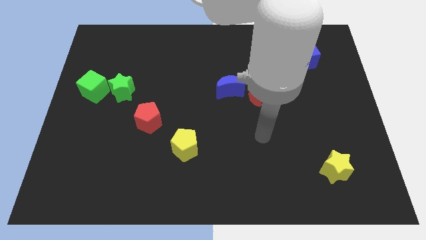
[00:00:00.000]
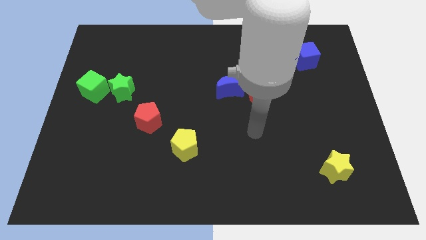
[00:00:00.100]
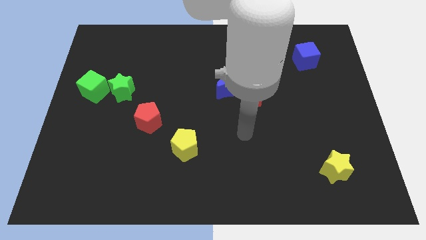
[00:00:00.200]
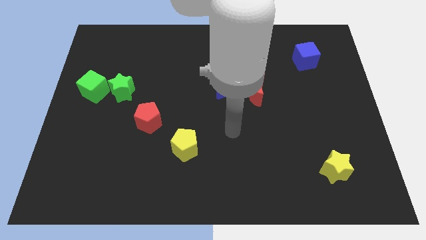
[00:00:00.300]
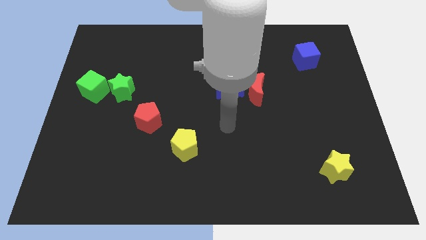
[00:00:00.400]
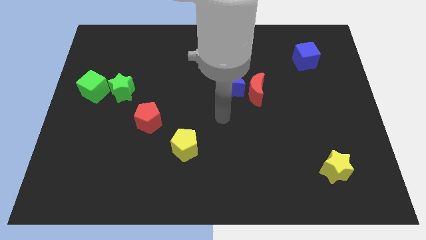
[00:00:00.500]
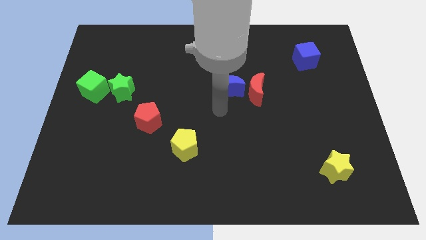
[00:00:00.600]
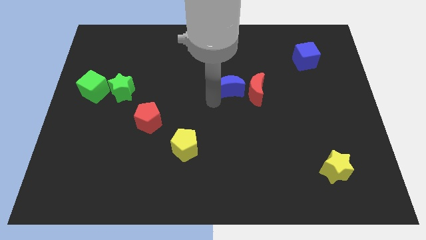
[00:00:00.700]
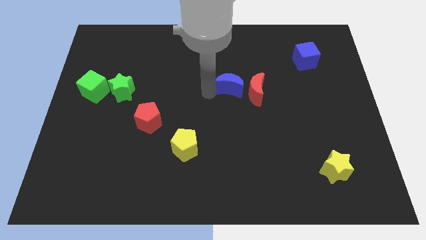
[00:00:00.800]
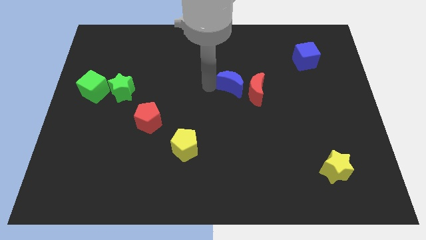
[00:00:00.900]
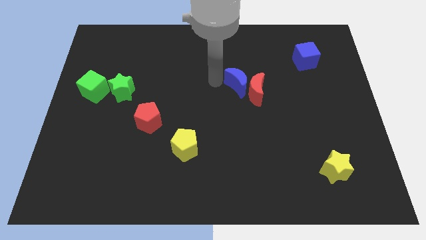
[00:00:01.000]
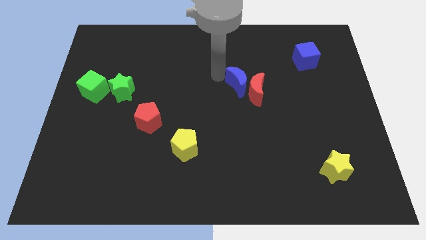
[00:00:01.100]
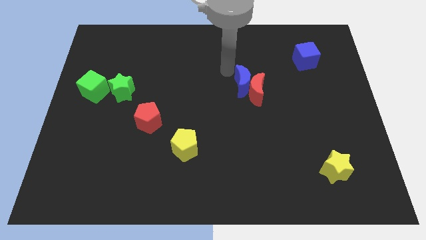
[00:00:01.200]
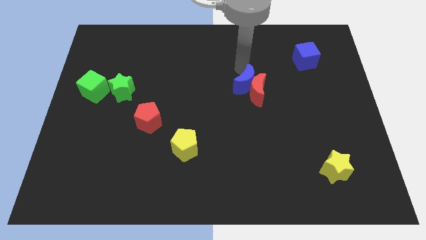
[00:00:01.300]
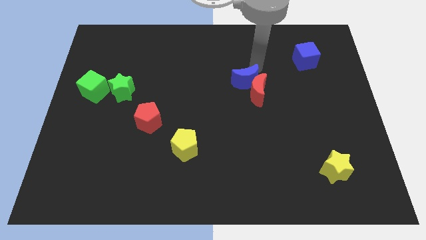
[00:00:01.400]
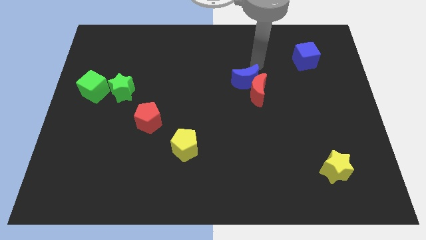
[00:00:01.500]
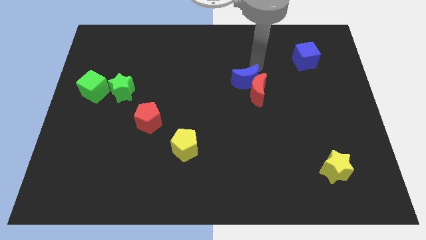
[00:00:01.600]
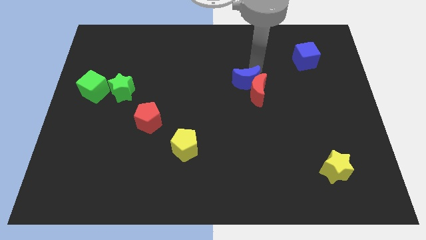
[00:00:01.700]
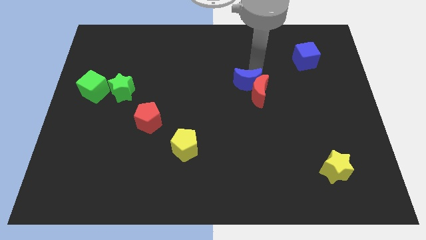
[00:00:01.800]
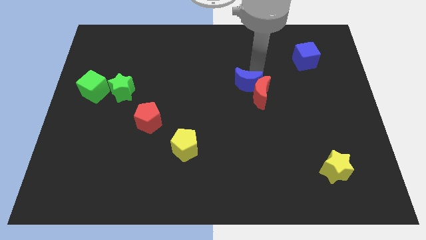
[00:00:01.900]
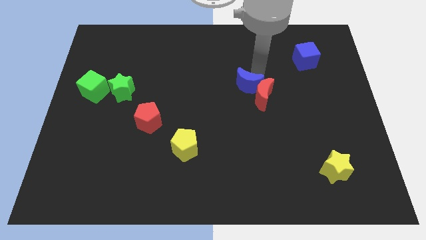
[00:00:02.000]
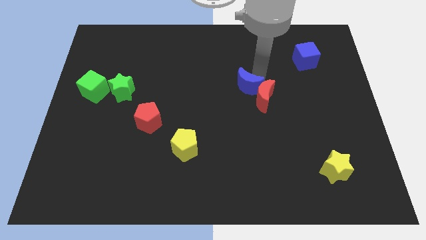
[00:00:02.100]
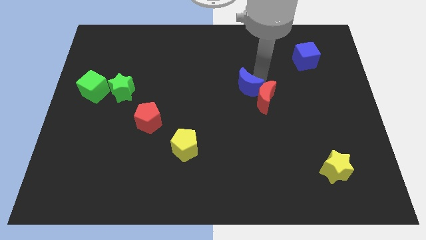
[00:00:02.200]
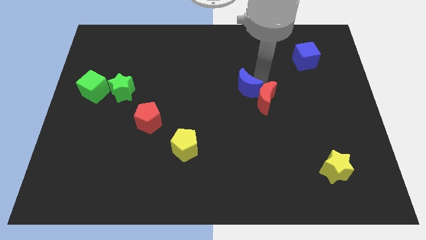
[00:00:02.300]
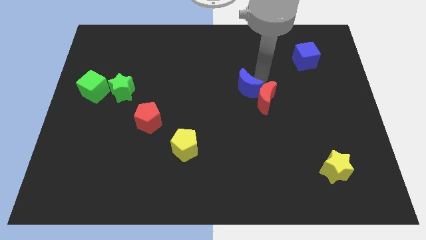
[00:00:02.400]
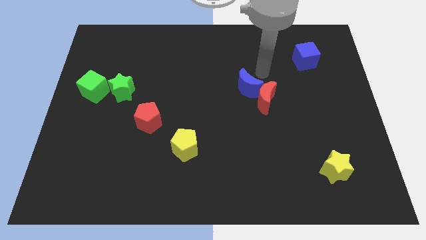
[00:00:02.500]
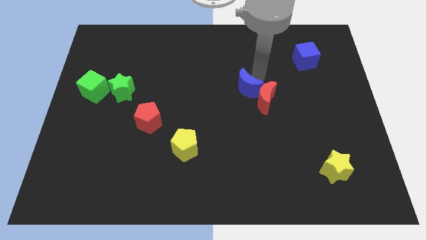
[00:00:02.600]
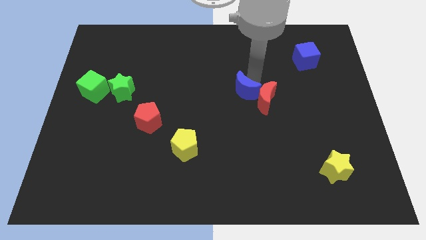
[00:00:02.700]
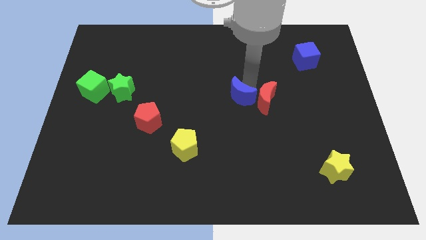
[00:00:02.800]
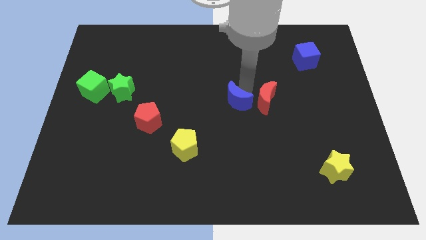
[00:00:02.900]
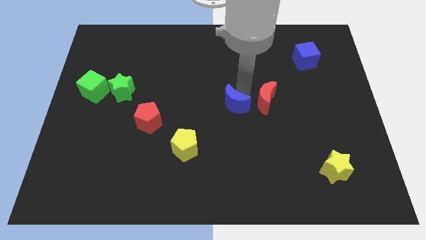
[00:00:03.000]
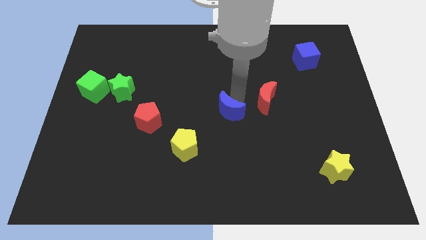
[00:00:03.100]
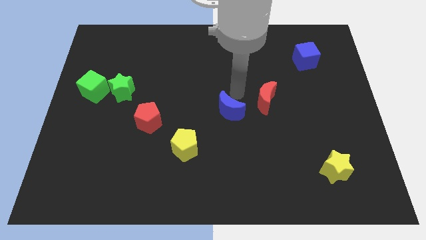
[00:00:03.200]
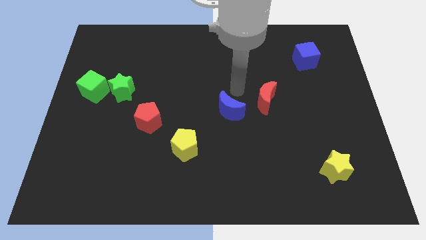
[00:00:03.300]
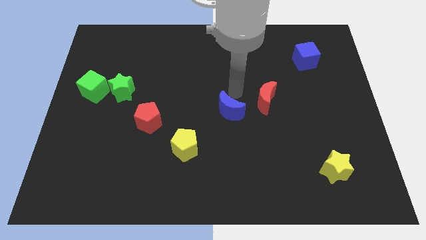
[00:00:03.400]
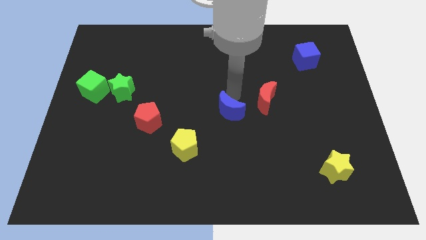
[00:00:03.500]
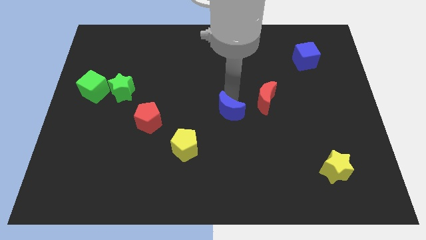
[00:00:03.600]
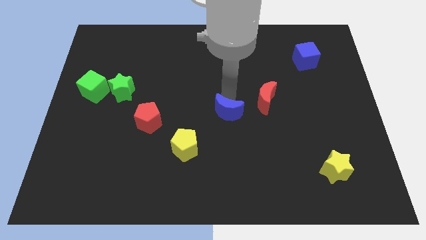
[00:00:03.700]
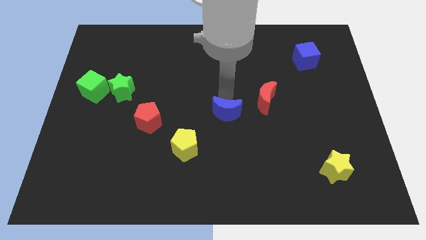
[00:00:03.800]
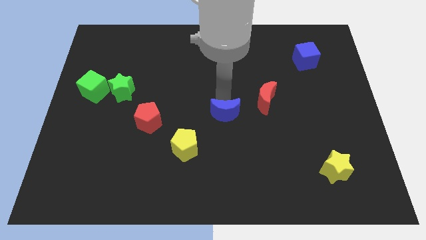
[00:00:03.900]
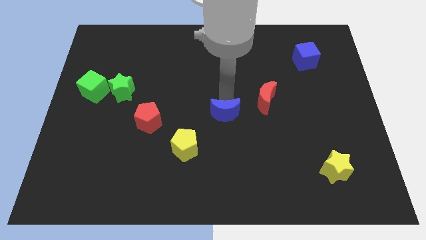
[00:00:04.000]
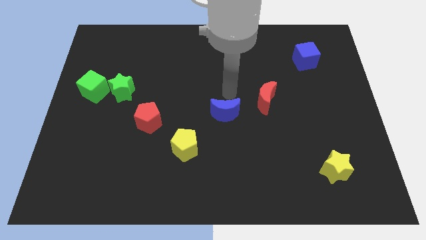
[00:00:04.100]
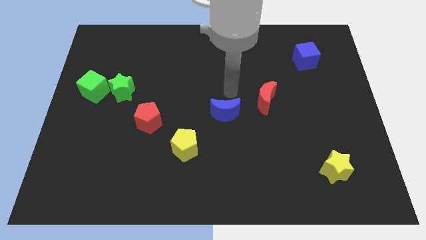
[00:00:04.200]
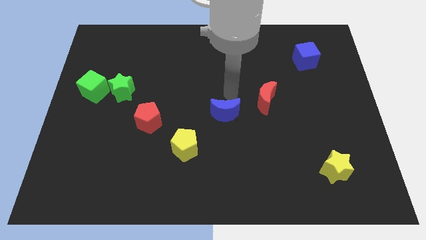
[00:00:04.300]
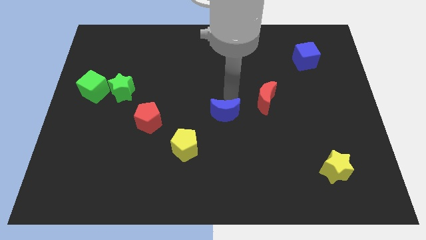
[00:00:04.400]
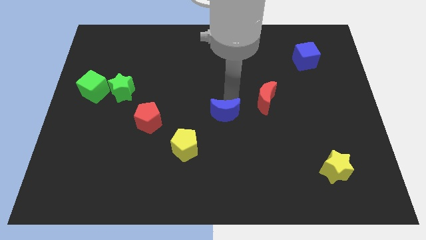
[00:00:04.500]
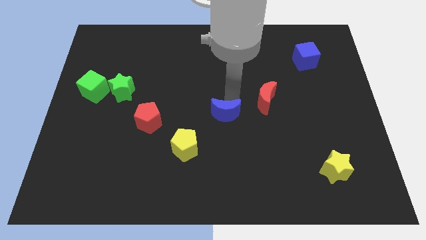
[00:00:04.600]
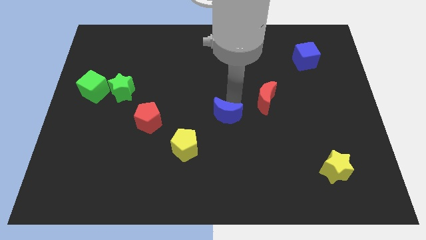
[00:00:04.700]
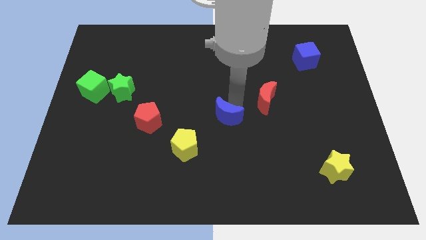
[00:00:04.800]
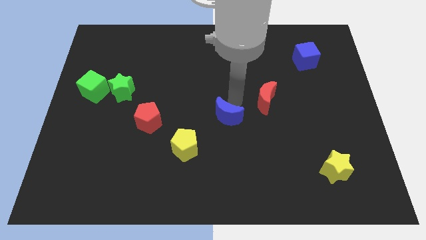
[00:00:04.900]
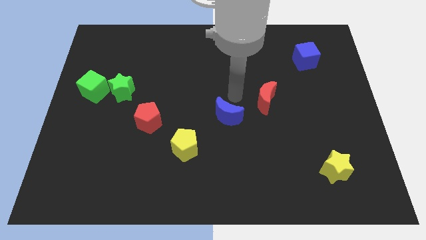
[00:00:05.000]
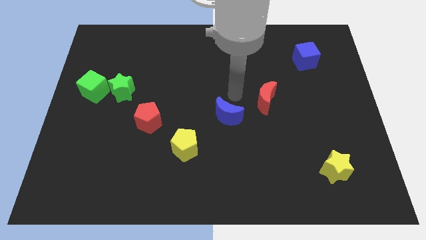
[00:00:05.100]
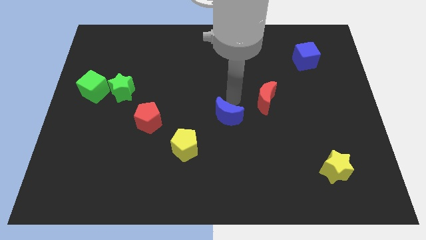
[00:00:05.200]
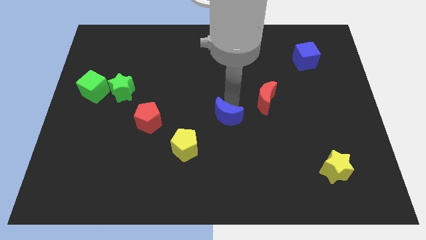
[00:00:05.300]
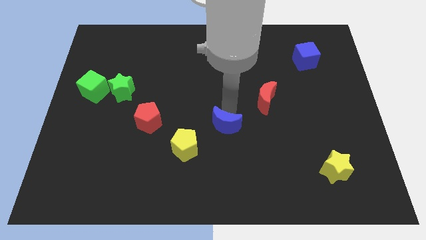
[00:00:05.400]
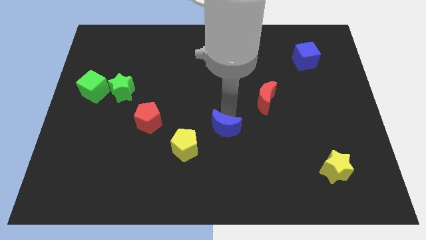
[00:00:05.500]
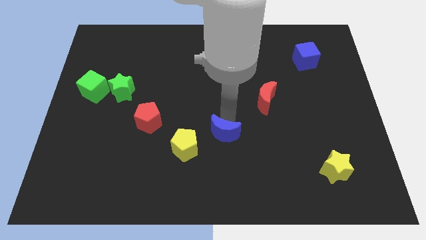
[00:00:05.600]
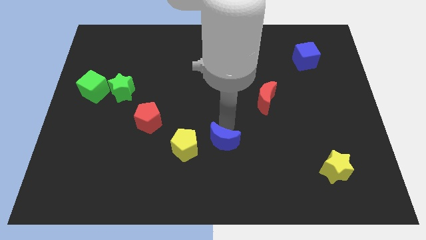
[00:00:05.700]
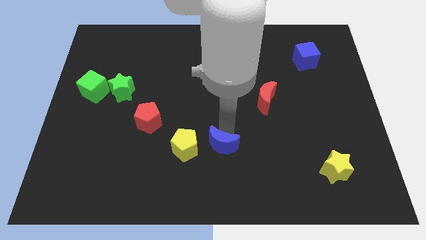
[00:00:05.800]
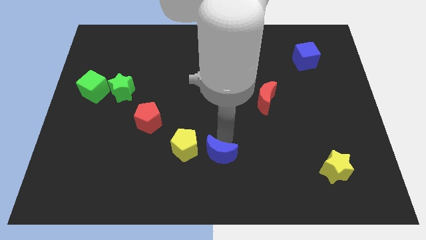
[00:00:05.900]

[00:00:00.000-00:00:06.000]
push the blue moon to the bottom

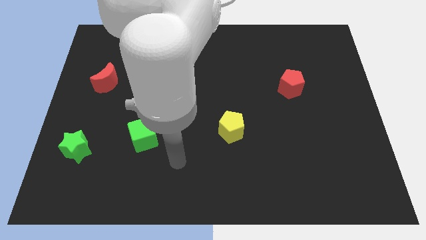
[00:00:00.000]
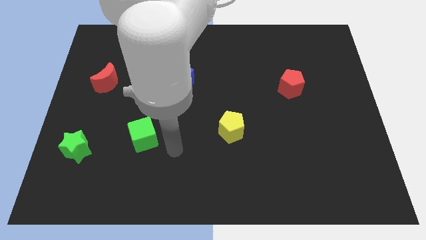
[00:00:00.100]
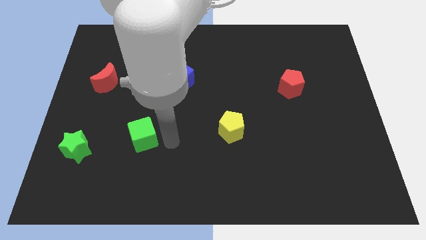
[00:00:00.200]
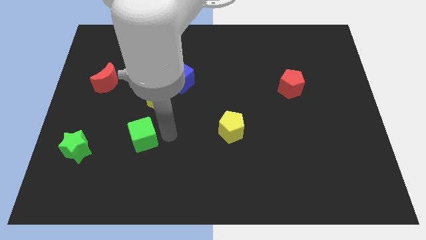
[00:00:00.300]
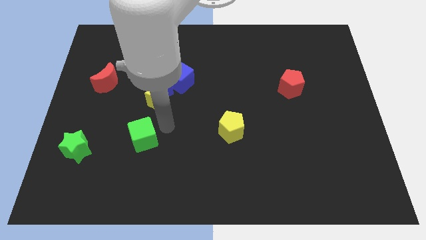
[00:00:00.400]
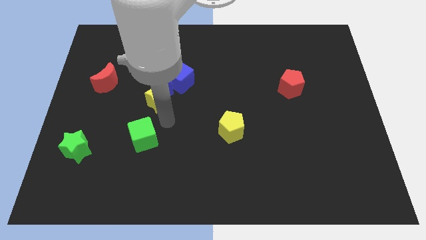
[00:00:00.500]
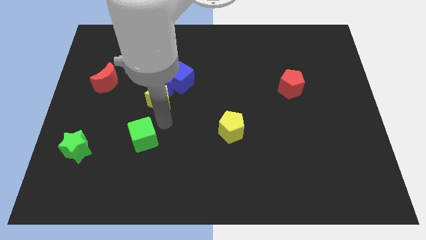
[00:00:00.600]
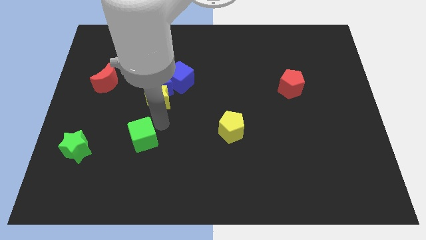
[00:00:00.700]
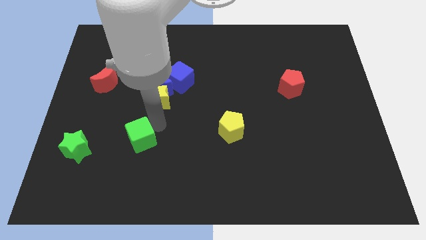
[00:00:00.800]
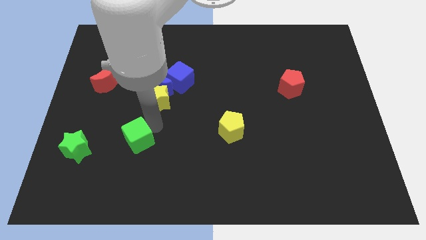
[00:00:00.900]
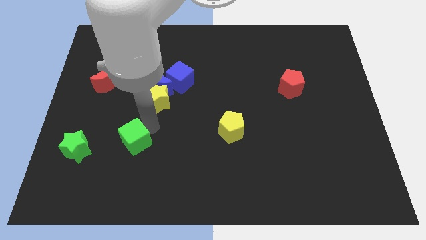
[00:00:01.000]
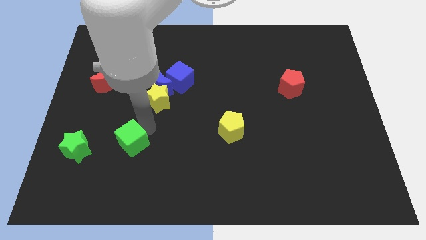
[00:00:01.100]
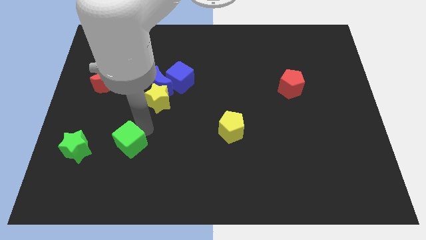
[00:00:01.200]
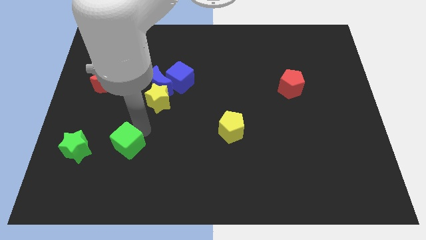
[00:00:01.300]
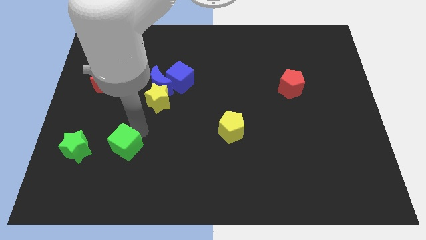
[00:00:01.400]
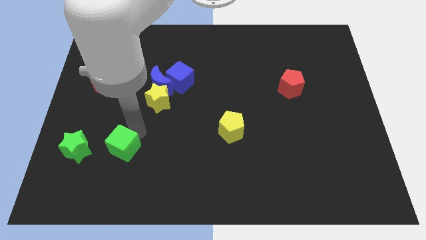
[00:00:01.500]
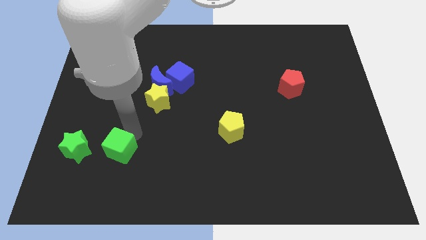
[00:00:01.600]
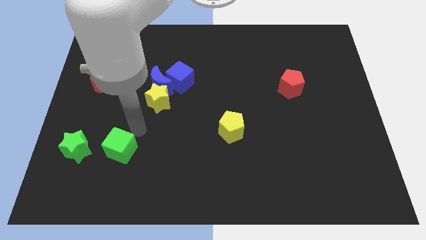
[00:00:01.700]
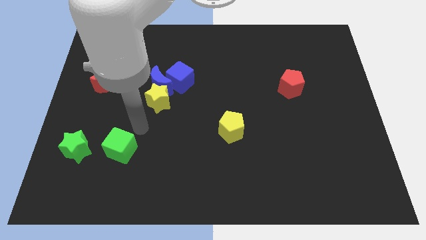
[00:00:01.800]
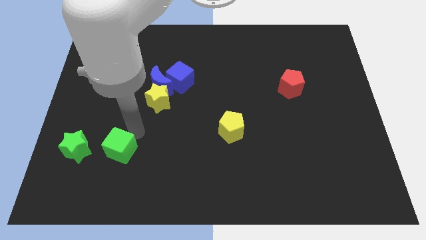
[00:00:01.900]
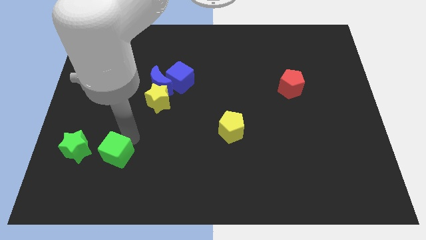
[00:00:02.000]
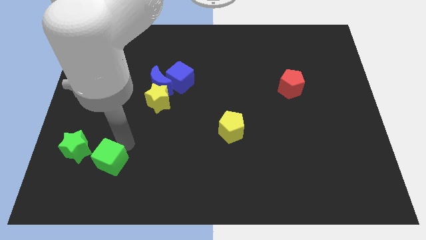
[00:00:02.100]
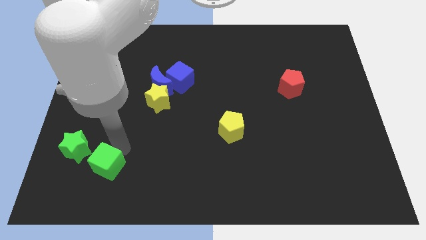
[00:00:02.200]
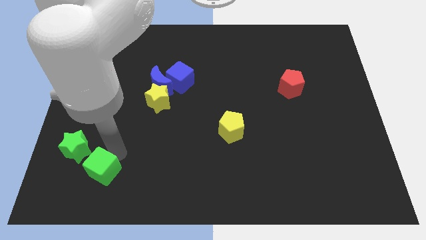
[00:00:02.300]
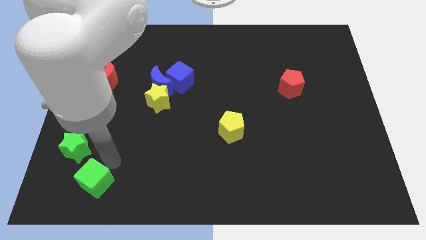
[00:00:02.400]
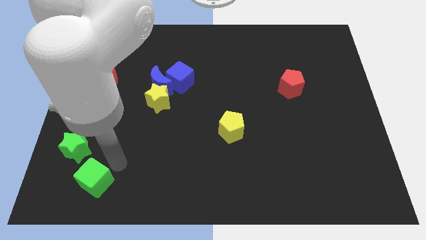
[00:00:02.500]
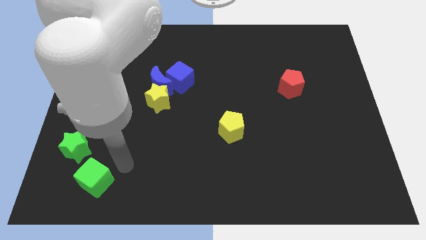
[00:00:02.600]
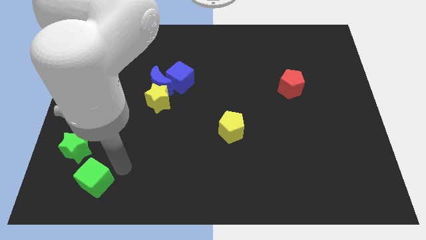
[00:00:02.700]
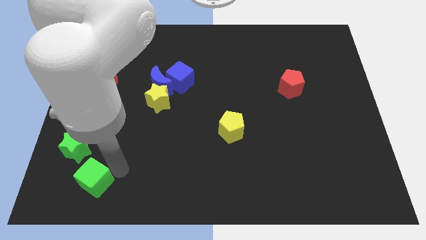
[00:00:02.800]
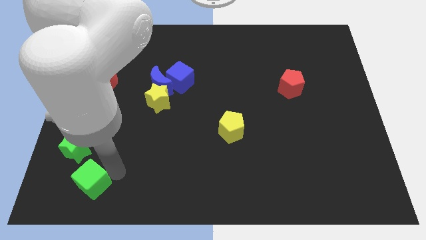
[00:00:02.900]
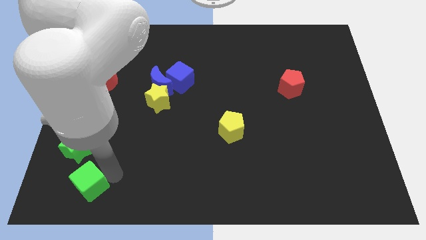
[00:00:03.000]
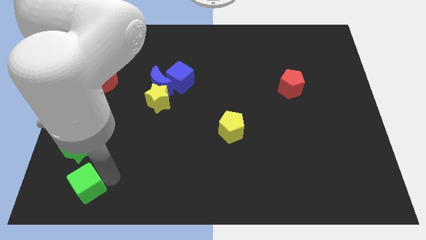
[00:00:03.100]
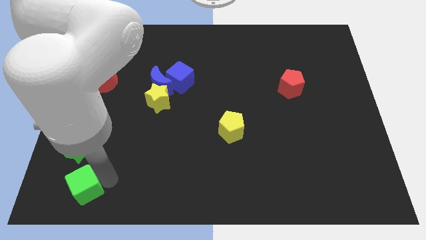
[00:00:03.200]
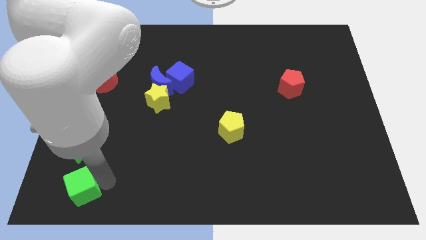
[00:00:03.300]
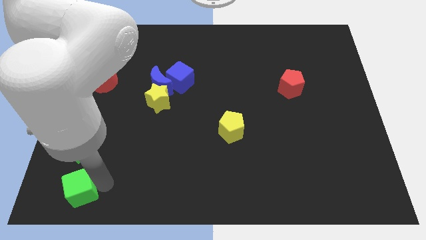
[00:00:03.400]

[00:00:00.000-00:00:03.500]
slide the green cube to the lower left corner
